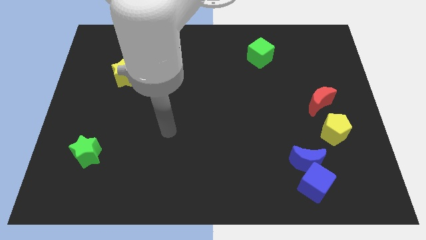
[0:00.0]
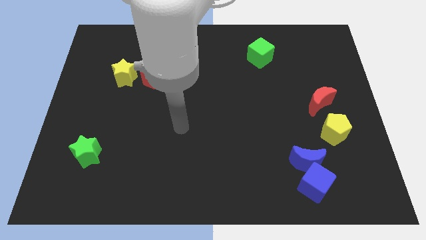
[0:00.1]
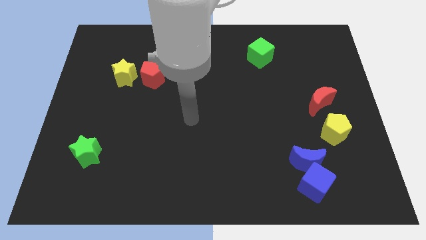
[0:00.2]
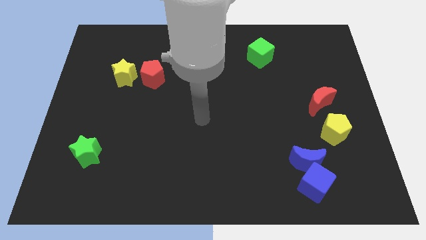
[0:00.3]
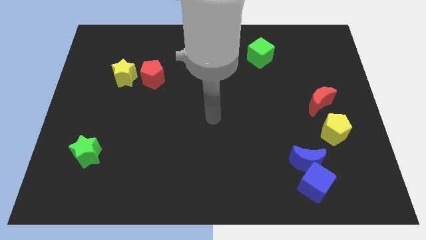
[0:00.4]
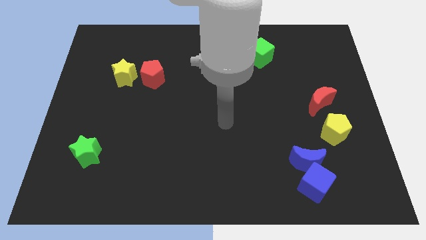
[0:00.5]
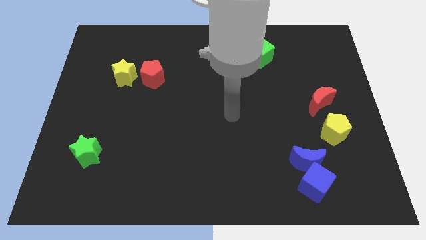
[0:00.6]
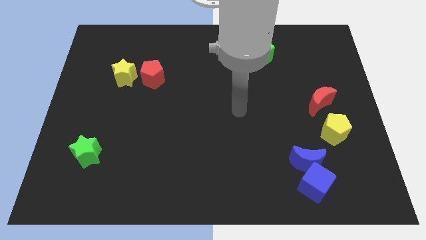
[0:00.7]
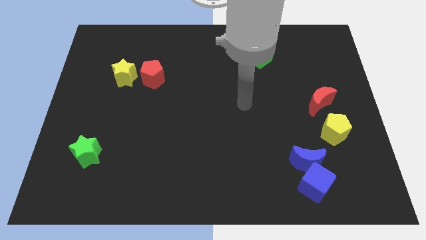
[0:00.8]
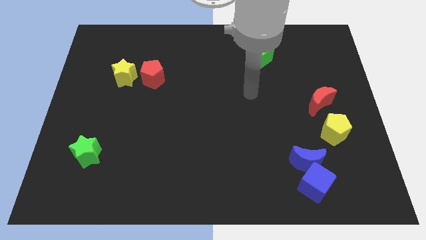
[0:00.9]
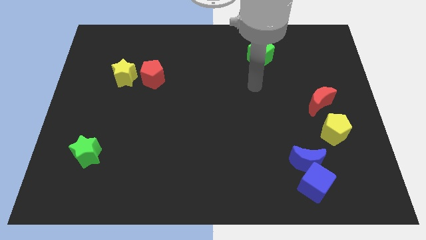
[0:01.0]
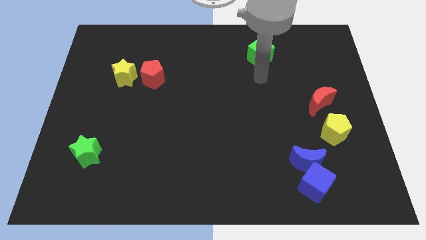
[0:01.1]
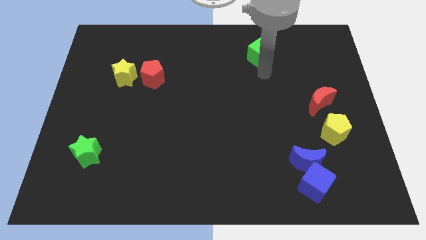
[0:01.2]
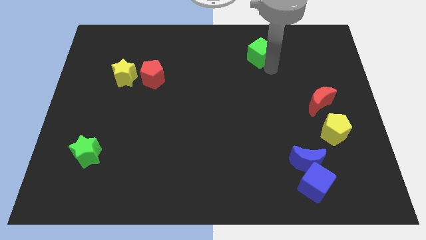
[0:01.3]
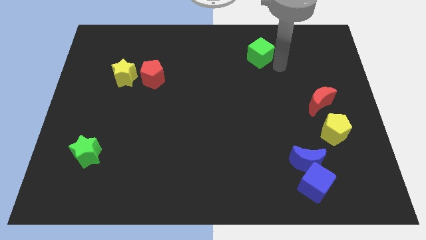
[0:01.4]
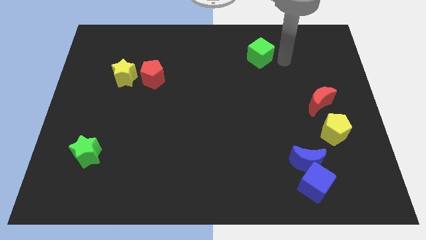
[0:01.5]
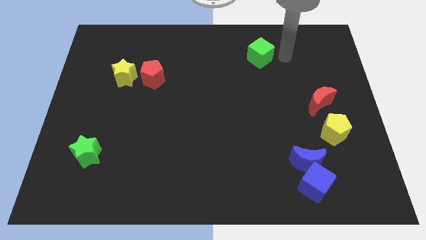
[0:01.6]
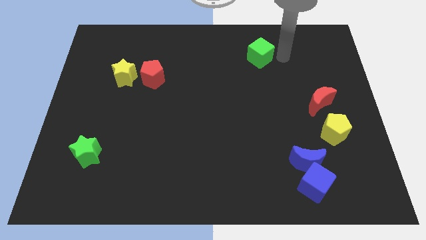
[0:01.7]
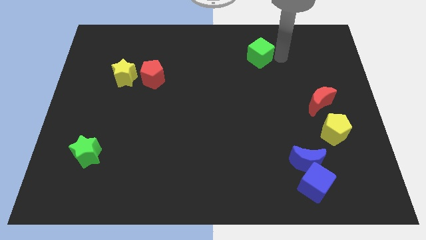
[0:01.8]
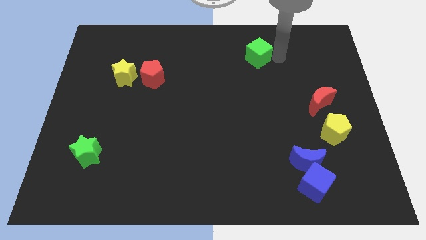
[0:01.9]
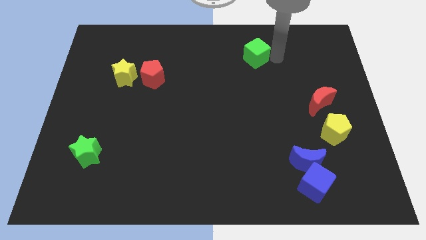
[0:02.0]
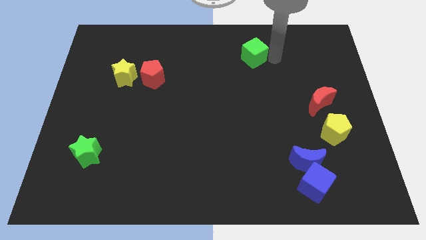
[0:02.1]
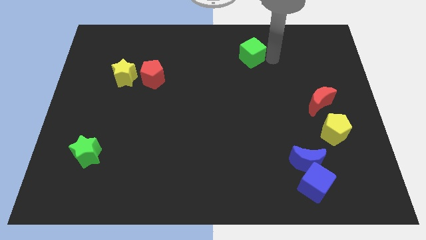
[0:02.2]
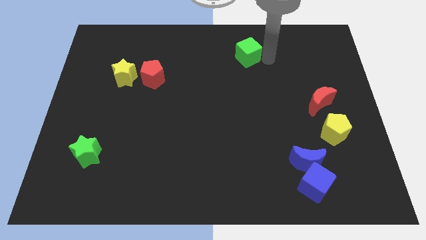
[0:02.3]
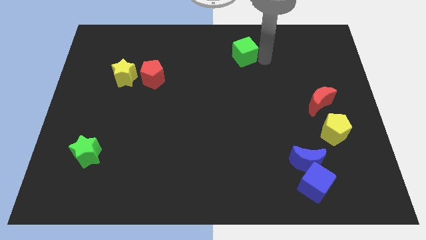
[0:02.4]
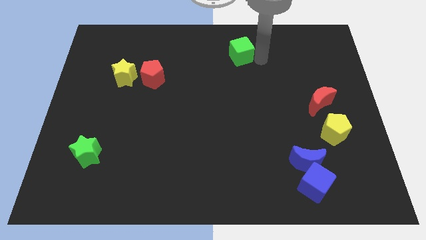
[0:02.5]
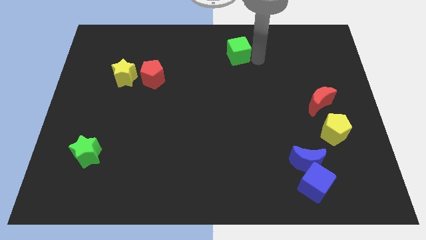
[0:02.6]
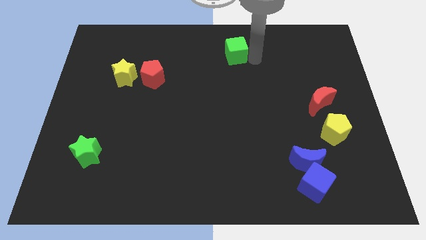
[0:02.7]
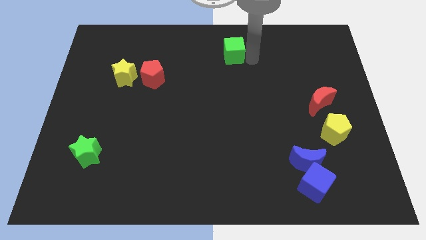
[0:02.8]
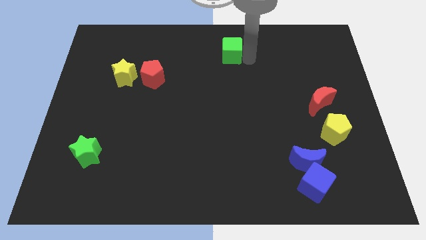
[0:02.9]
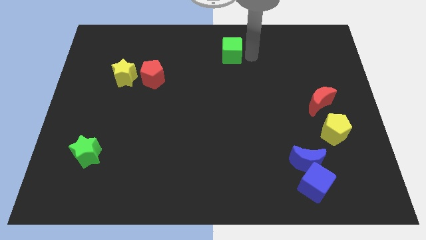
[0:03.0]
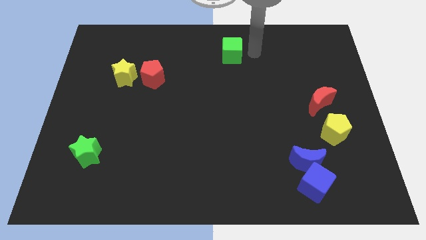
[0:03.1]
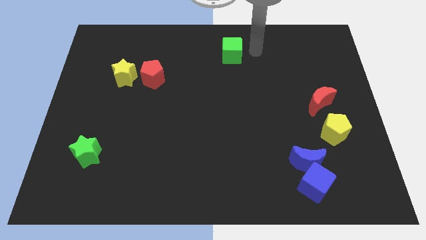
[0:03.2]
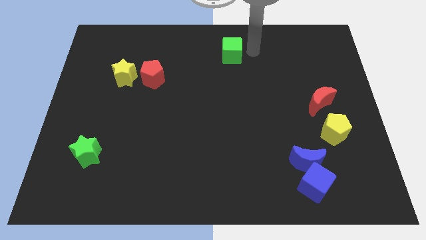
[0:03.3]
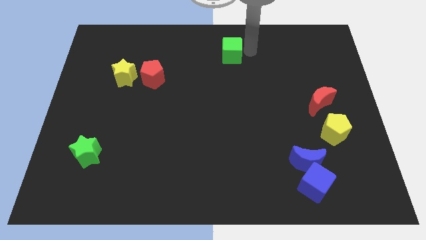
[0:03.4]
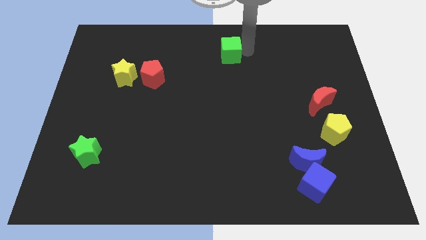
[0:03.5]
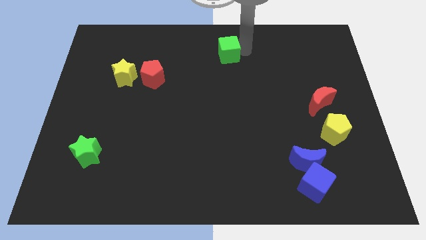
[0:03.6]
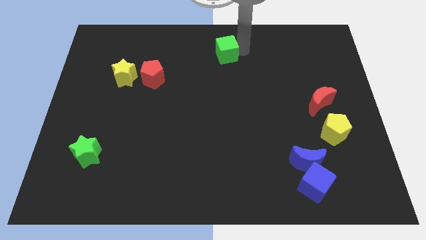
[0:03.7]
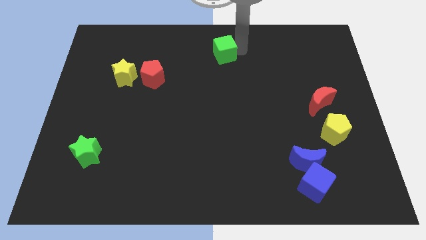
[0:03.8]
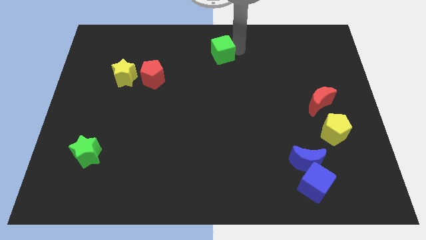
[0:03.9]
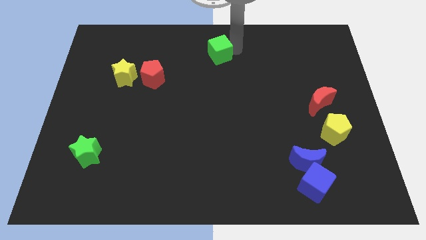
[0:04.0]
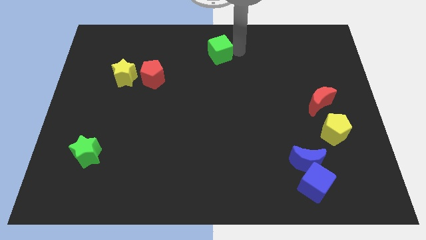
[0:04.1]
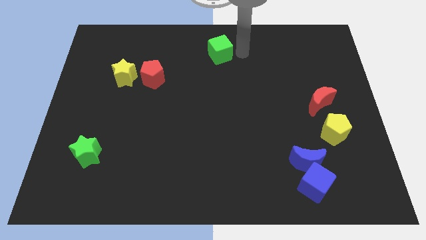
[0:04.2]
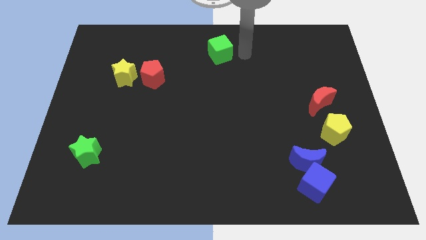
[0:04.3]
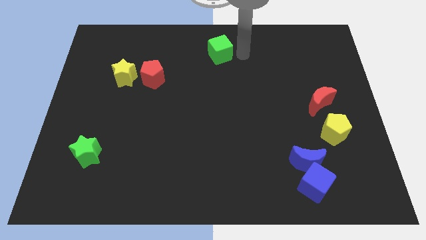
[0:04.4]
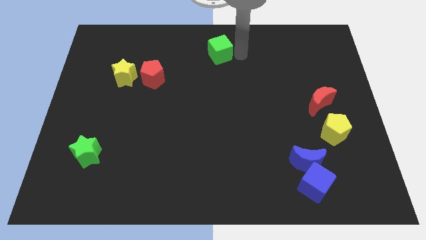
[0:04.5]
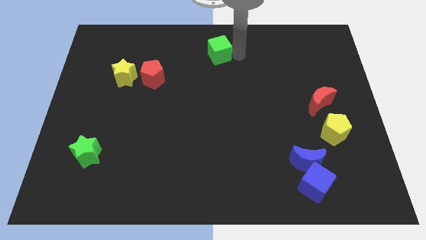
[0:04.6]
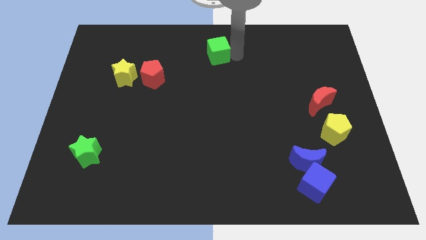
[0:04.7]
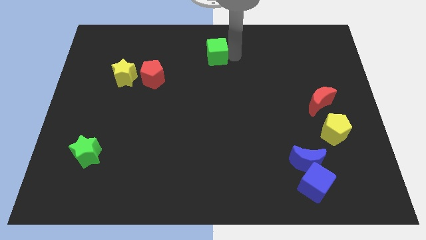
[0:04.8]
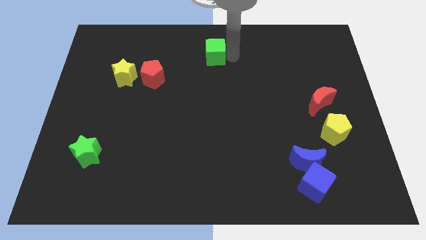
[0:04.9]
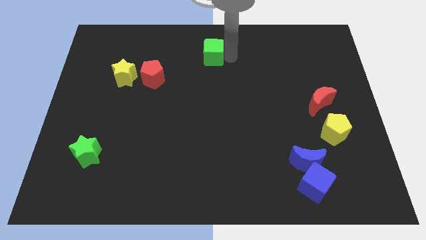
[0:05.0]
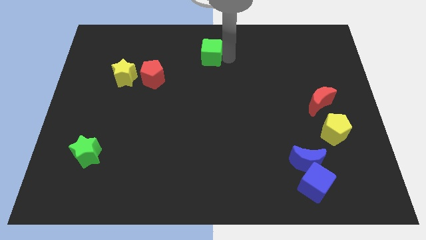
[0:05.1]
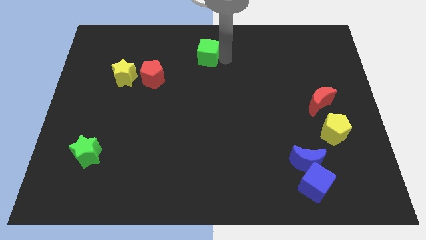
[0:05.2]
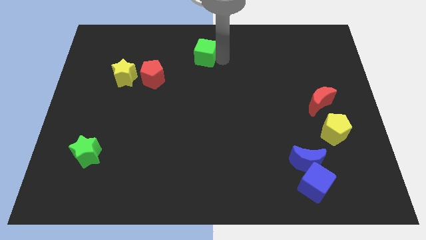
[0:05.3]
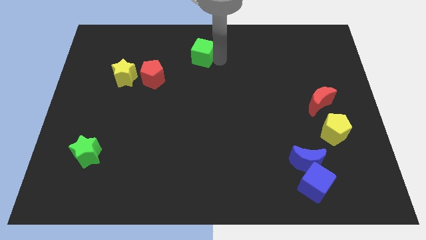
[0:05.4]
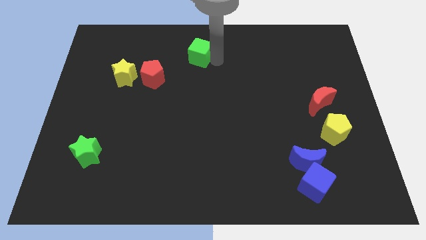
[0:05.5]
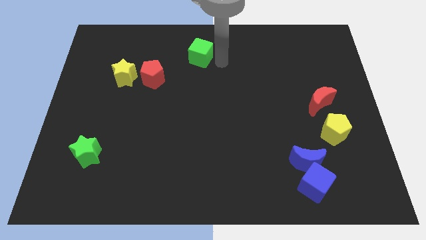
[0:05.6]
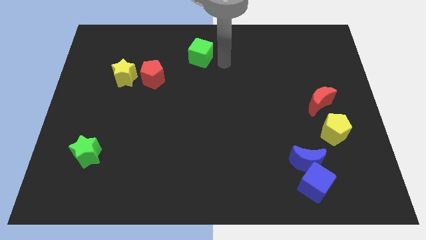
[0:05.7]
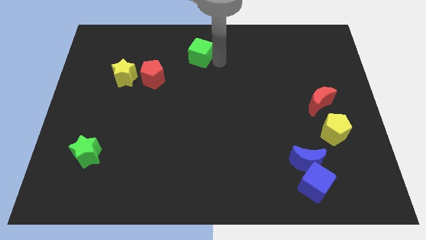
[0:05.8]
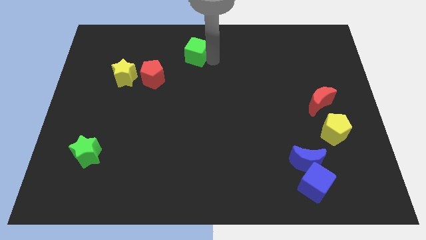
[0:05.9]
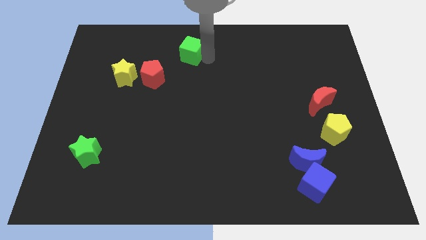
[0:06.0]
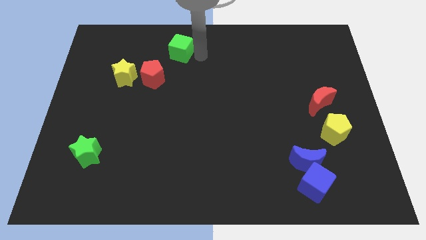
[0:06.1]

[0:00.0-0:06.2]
move the green cube to the left

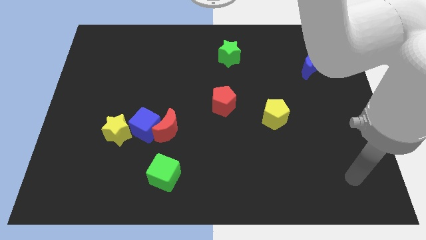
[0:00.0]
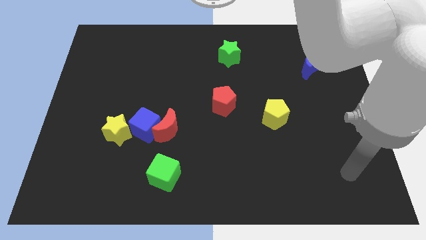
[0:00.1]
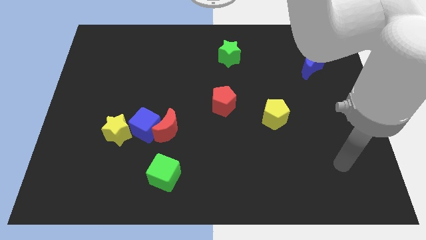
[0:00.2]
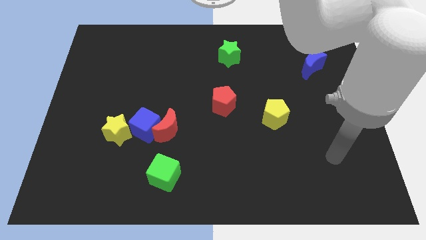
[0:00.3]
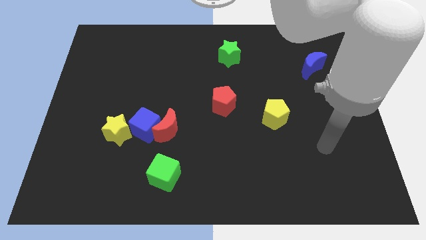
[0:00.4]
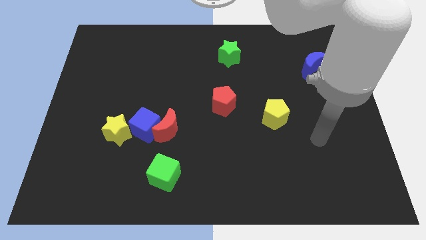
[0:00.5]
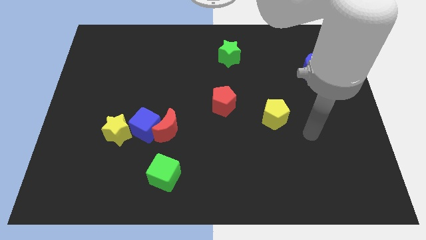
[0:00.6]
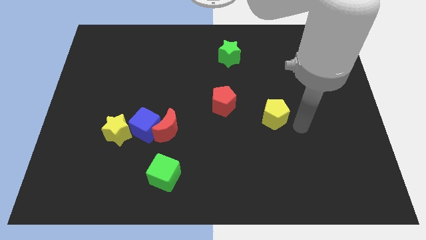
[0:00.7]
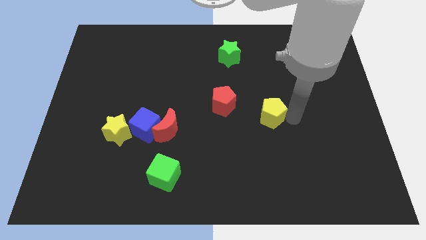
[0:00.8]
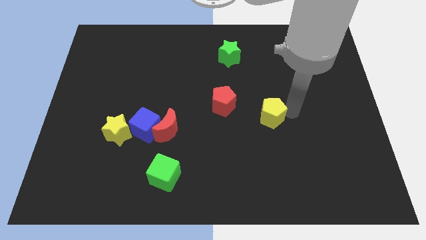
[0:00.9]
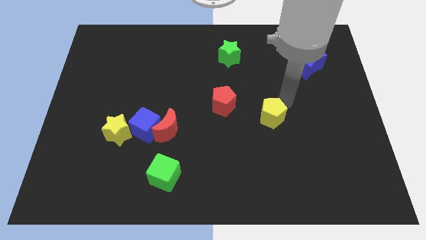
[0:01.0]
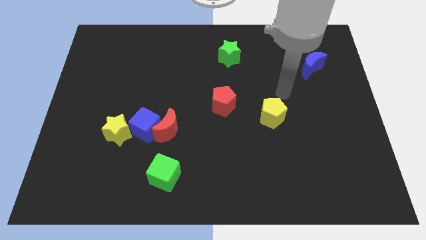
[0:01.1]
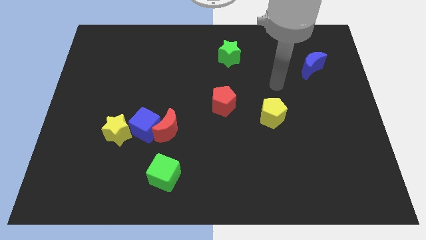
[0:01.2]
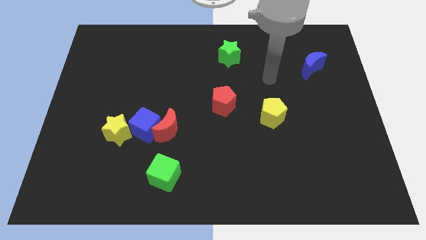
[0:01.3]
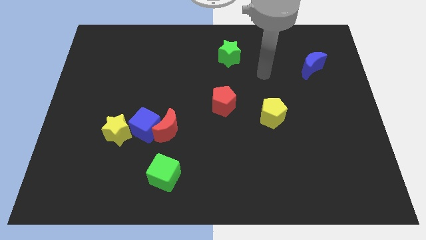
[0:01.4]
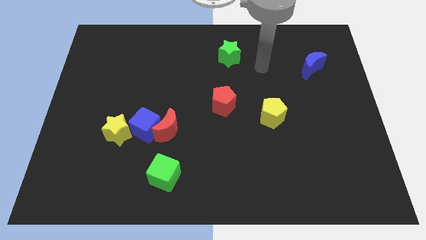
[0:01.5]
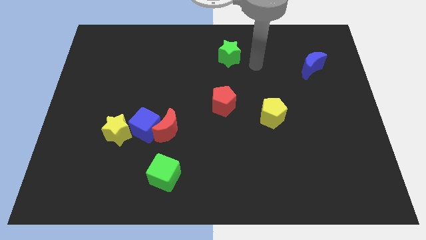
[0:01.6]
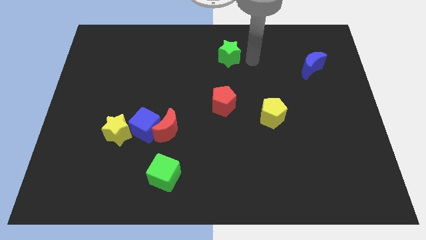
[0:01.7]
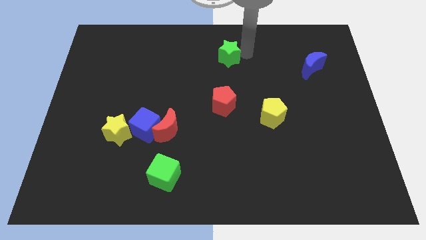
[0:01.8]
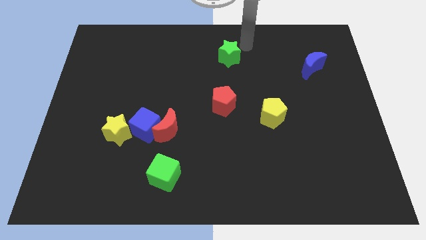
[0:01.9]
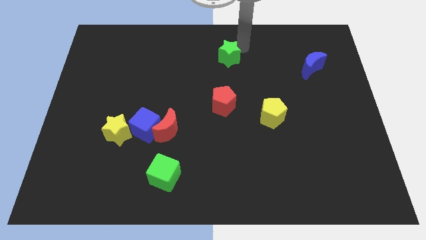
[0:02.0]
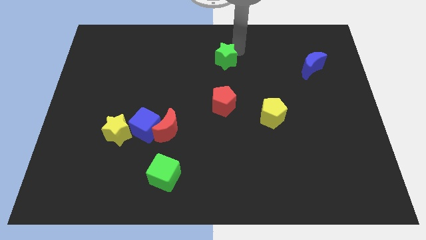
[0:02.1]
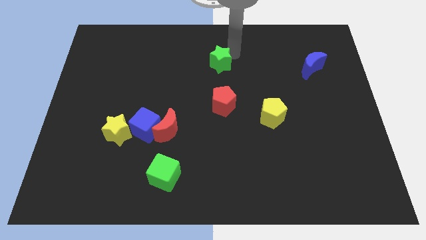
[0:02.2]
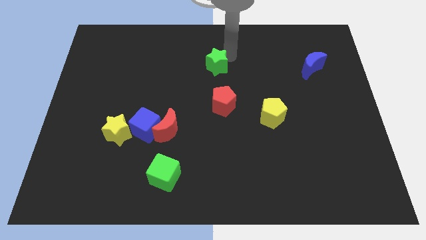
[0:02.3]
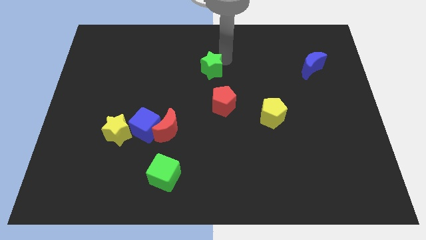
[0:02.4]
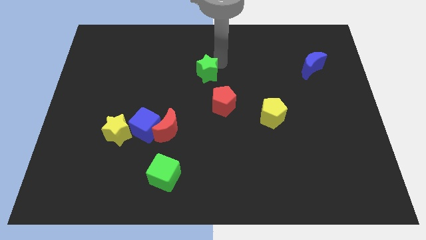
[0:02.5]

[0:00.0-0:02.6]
slightly push the green star down and to the left diagonally
